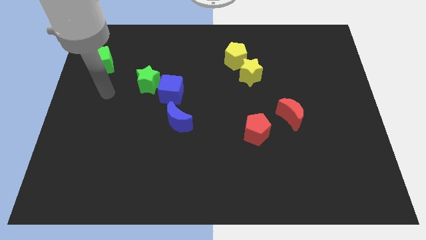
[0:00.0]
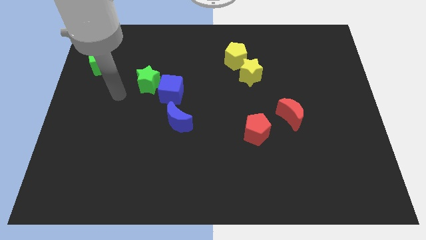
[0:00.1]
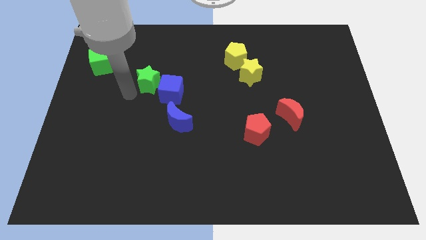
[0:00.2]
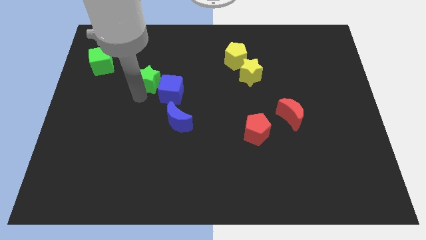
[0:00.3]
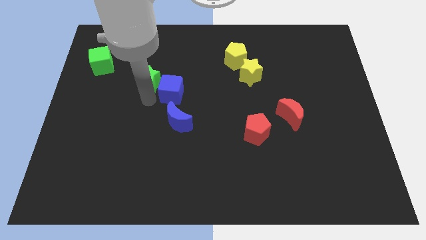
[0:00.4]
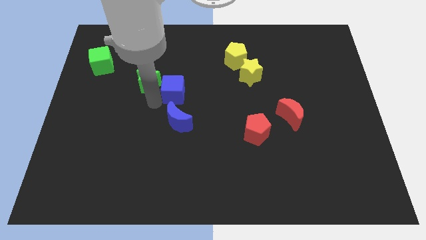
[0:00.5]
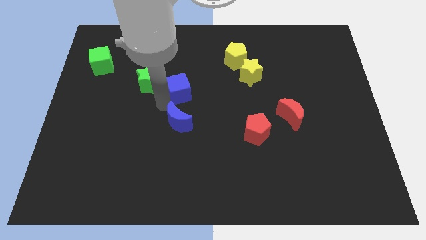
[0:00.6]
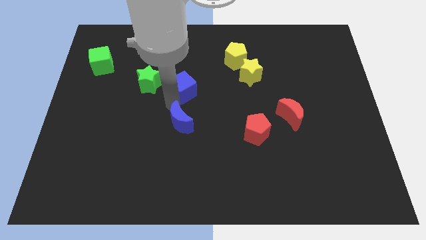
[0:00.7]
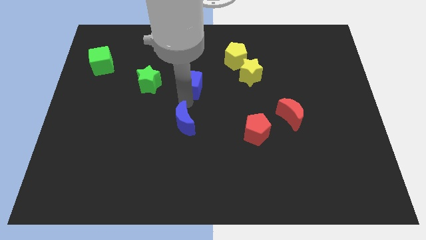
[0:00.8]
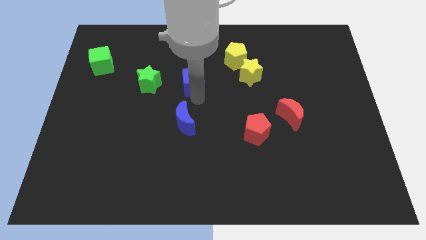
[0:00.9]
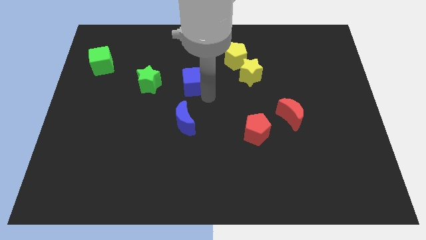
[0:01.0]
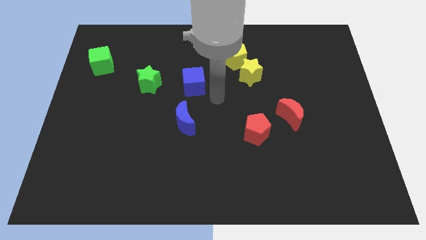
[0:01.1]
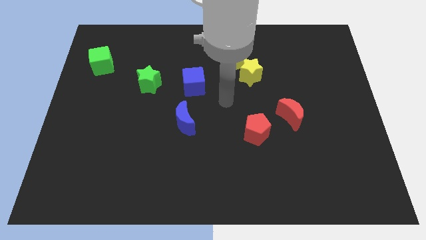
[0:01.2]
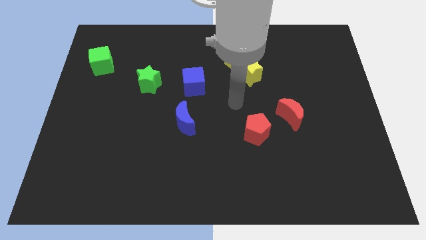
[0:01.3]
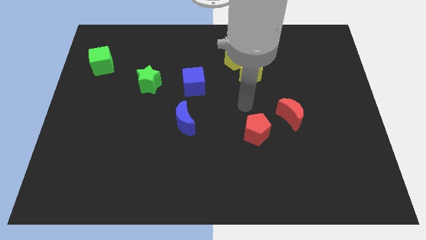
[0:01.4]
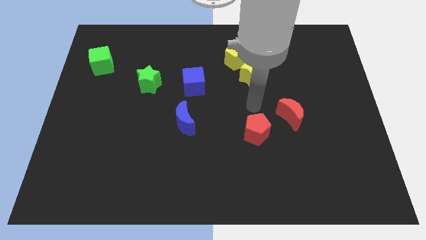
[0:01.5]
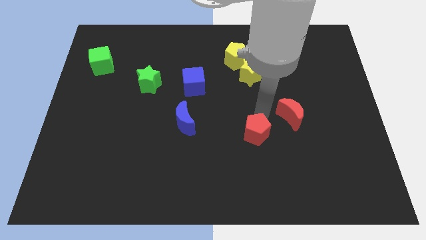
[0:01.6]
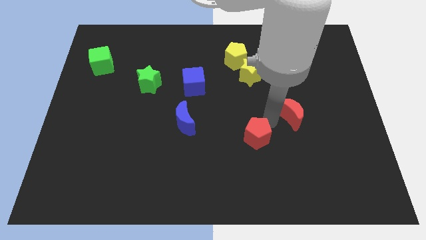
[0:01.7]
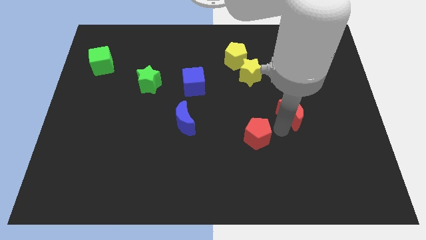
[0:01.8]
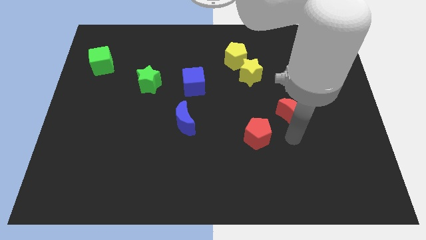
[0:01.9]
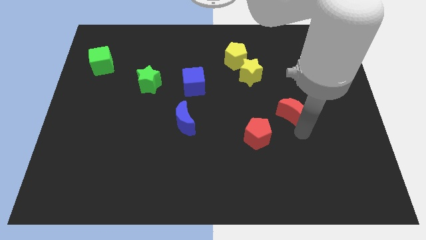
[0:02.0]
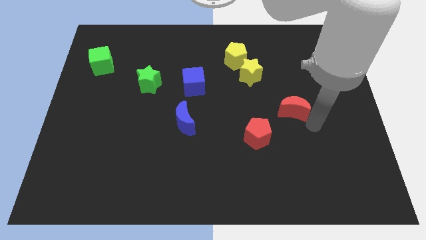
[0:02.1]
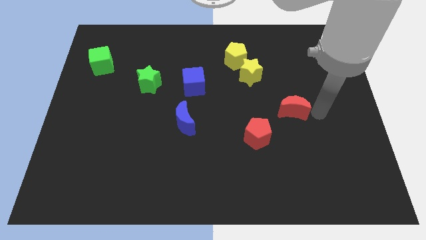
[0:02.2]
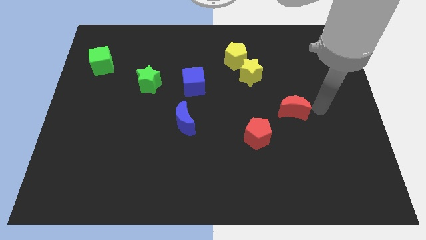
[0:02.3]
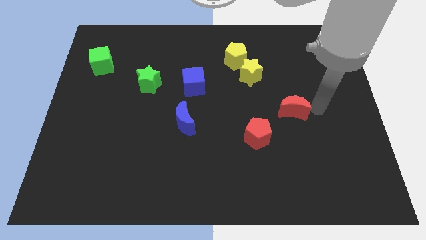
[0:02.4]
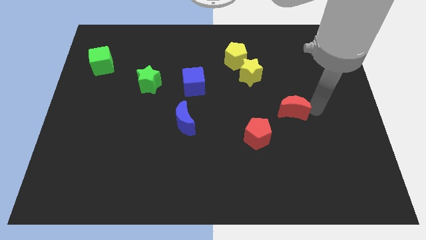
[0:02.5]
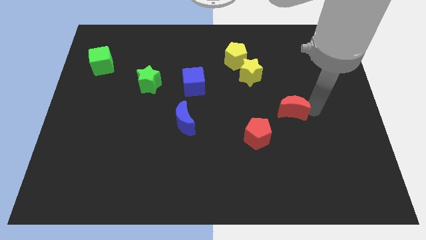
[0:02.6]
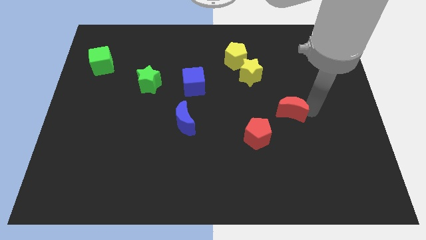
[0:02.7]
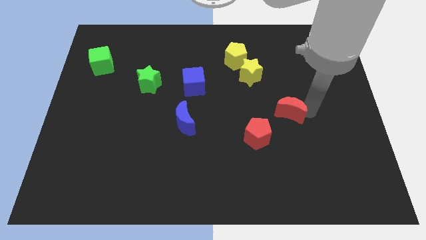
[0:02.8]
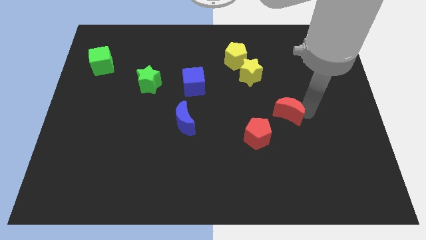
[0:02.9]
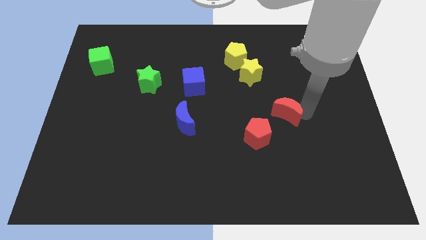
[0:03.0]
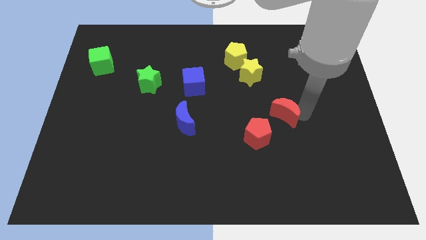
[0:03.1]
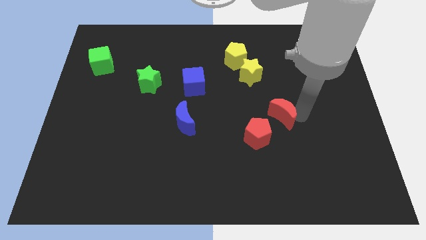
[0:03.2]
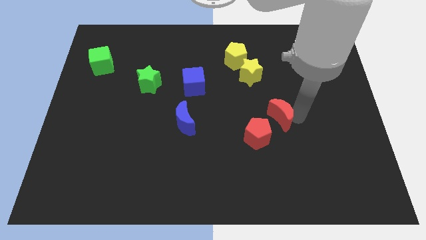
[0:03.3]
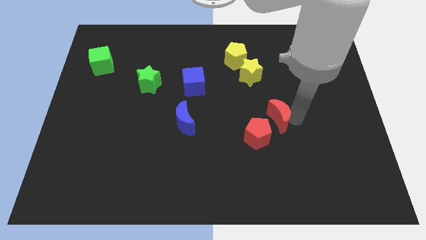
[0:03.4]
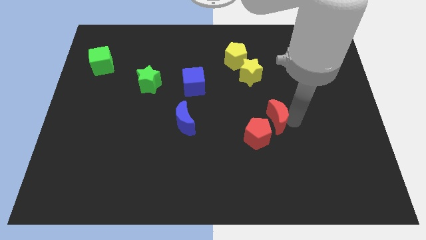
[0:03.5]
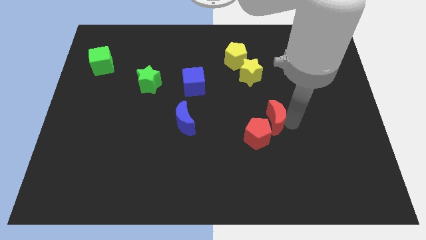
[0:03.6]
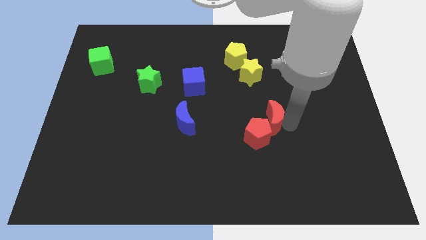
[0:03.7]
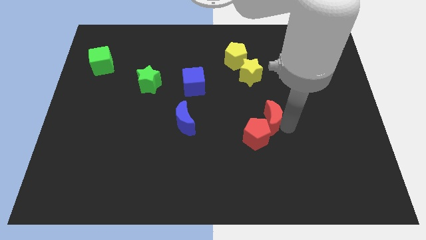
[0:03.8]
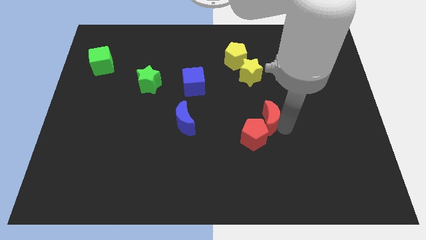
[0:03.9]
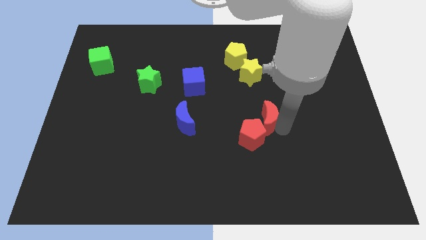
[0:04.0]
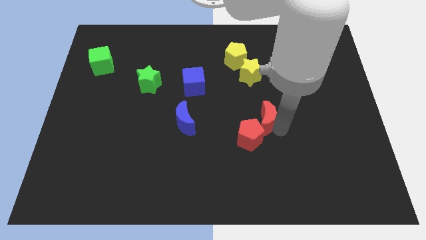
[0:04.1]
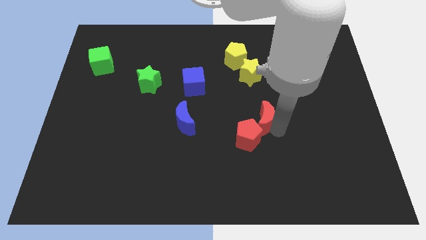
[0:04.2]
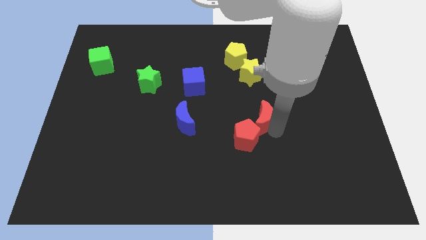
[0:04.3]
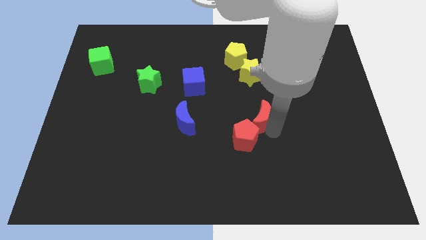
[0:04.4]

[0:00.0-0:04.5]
push the red moon left a little bit

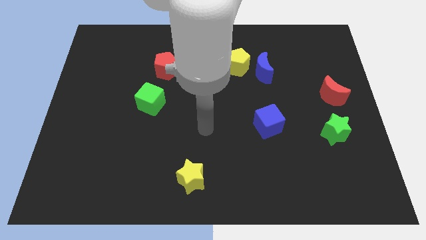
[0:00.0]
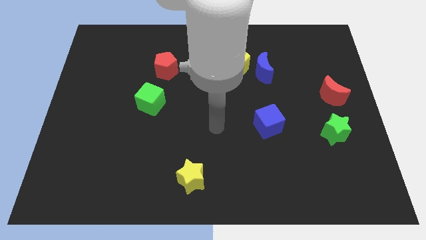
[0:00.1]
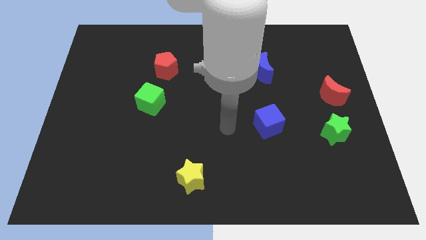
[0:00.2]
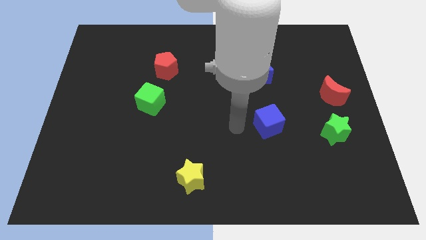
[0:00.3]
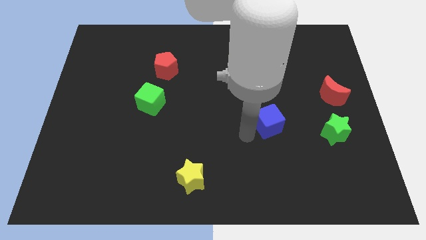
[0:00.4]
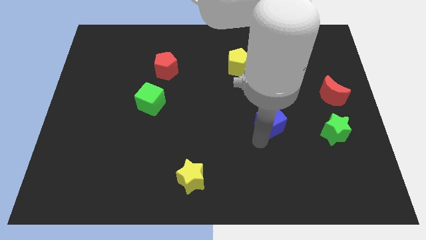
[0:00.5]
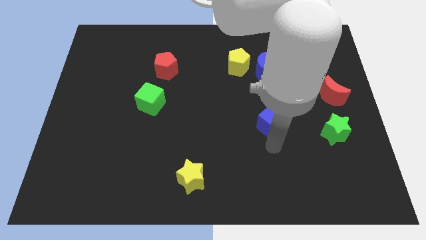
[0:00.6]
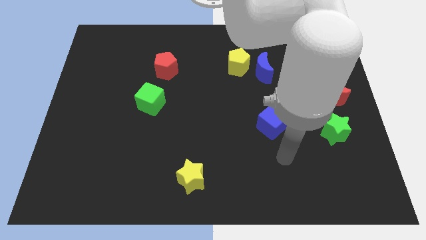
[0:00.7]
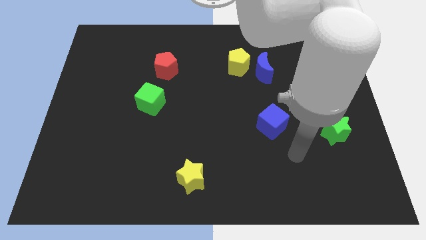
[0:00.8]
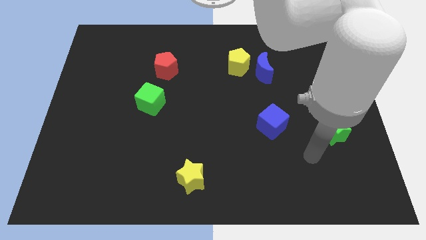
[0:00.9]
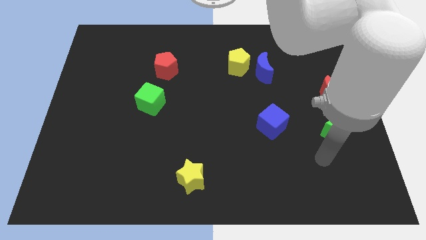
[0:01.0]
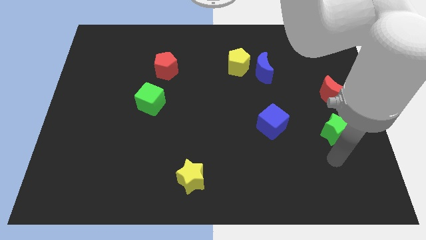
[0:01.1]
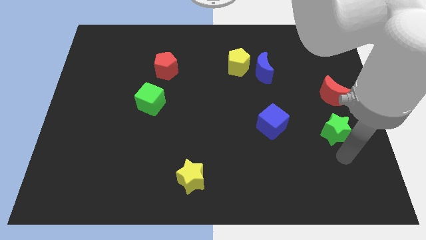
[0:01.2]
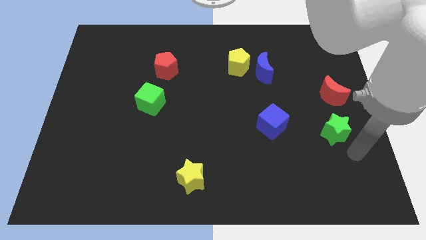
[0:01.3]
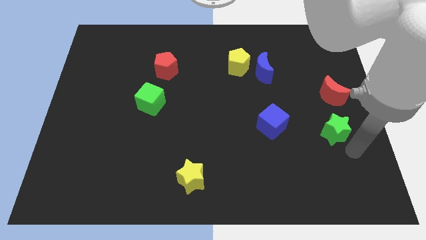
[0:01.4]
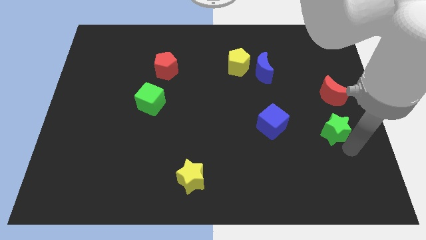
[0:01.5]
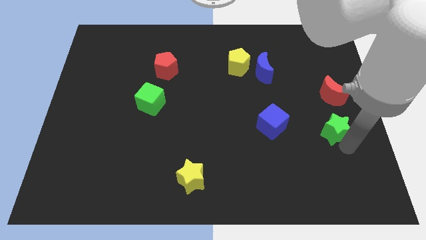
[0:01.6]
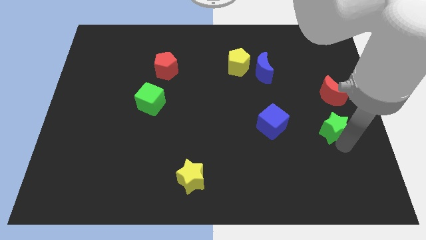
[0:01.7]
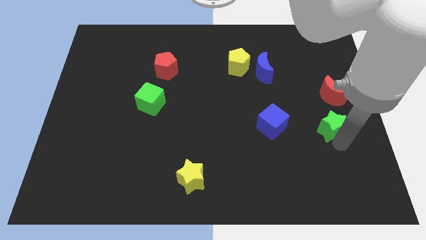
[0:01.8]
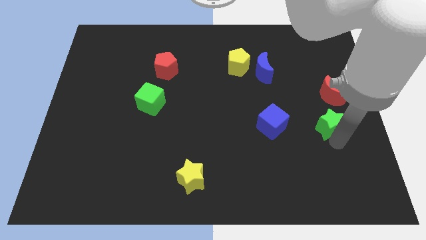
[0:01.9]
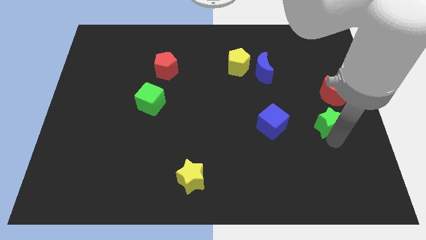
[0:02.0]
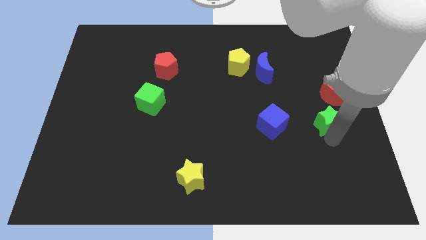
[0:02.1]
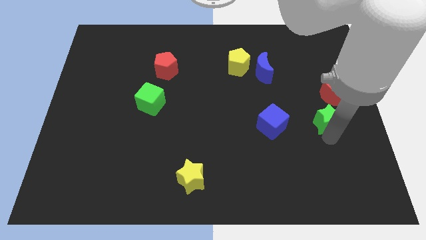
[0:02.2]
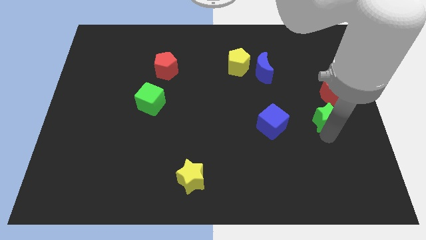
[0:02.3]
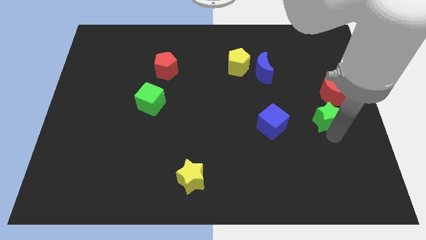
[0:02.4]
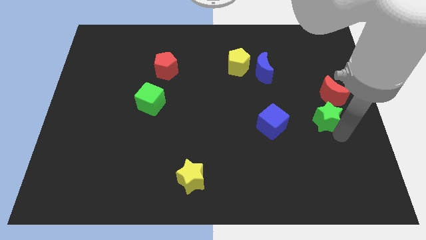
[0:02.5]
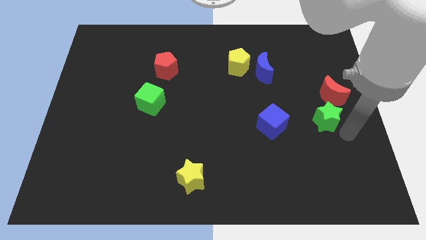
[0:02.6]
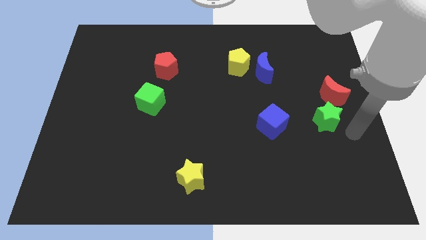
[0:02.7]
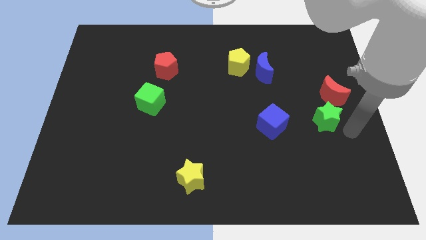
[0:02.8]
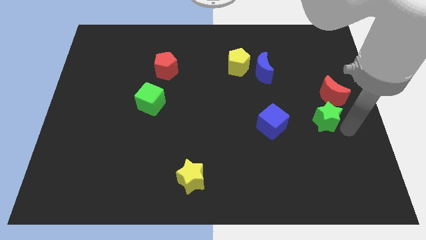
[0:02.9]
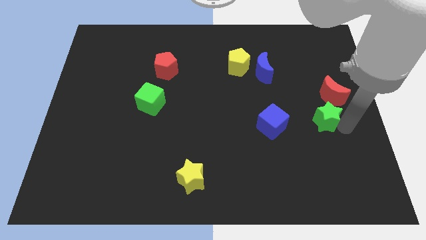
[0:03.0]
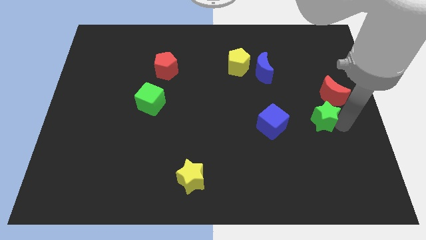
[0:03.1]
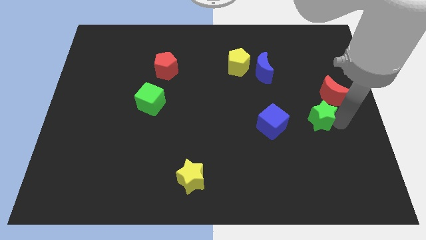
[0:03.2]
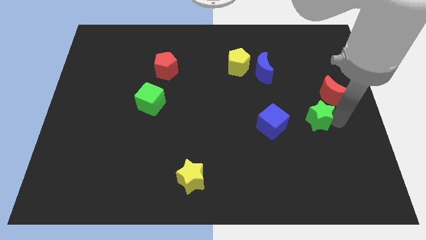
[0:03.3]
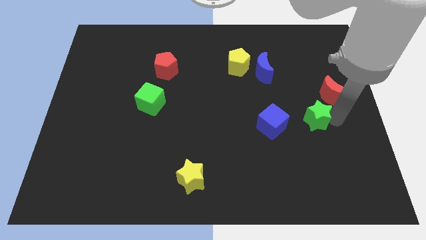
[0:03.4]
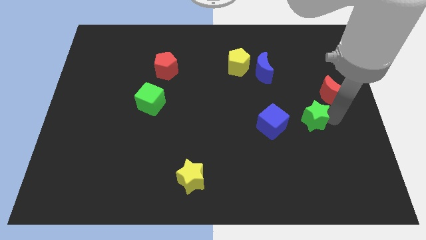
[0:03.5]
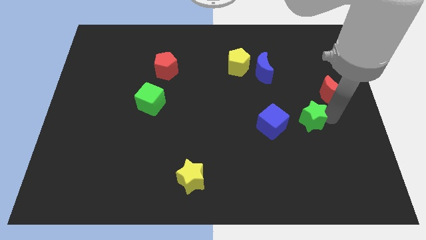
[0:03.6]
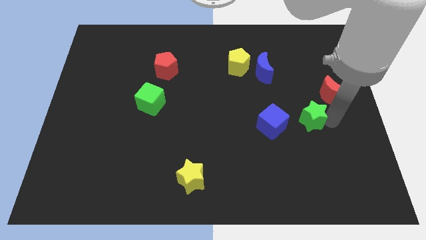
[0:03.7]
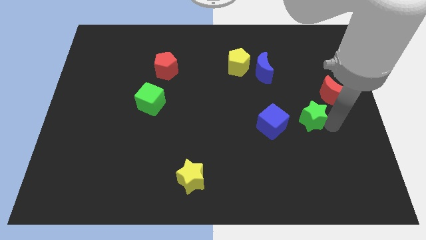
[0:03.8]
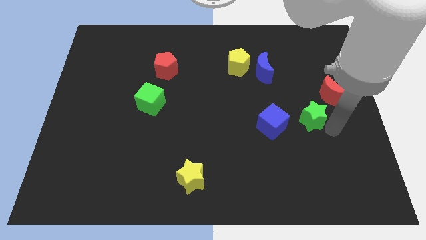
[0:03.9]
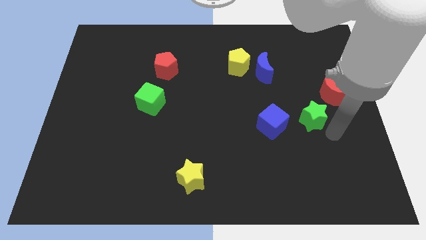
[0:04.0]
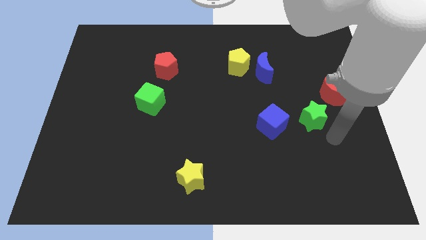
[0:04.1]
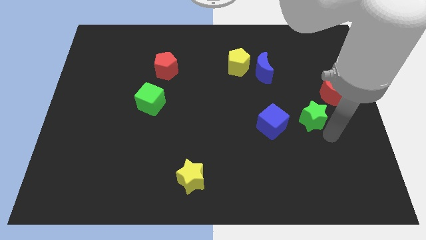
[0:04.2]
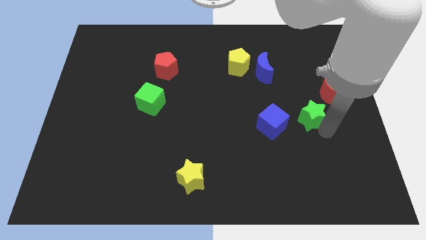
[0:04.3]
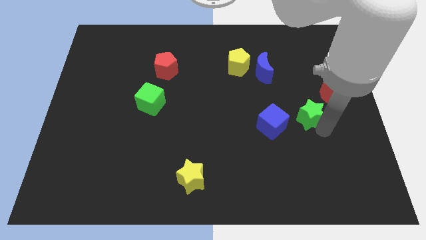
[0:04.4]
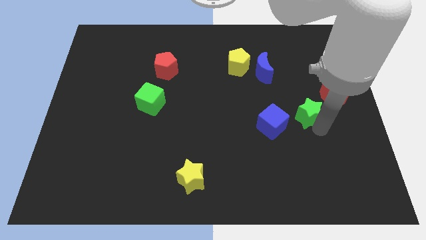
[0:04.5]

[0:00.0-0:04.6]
slightly push the green star up and left diagonally
